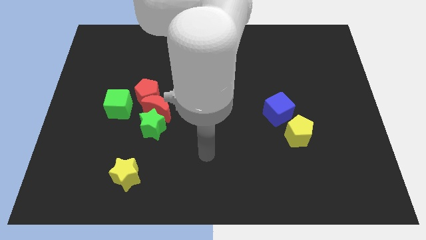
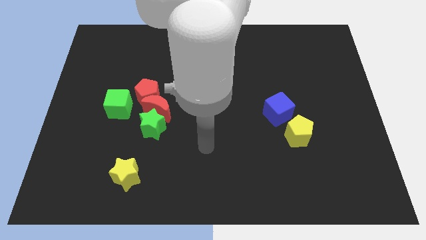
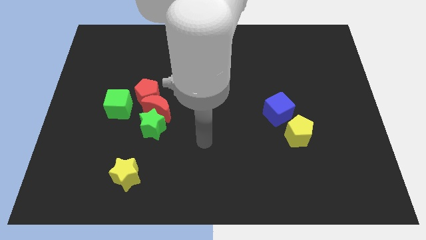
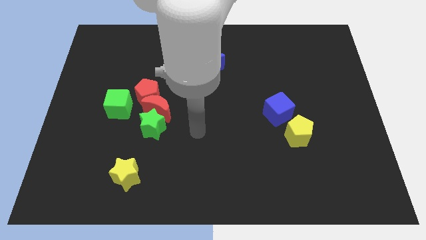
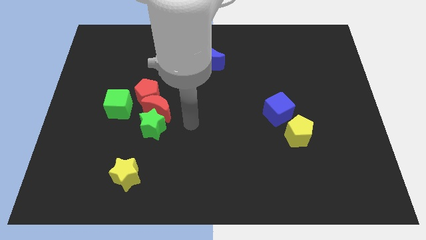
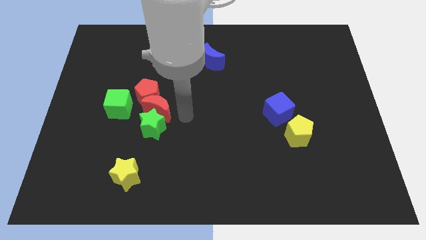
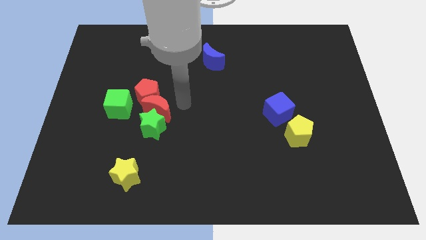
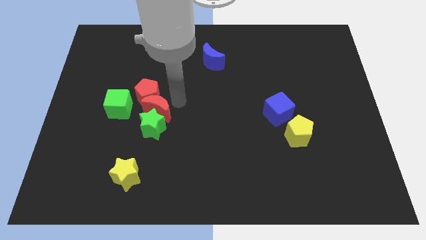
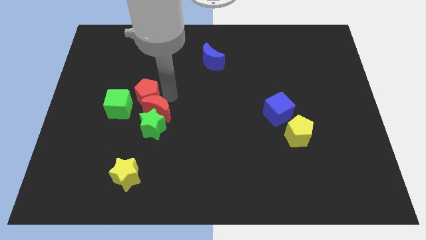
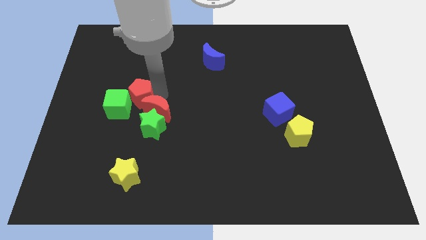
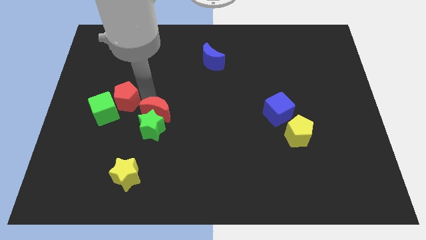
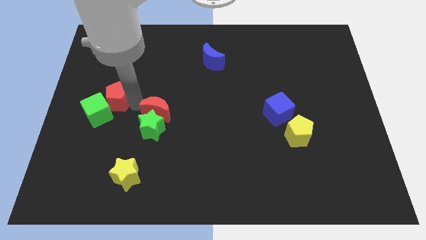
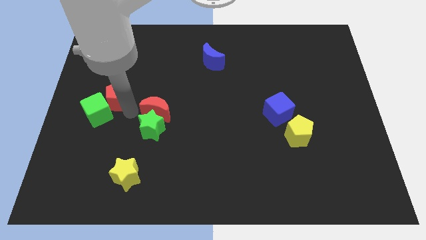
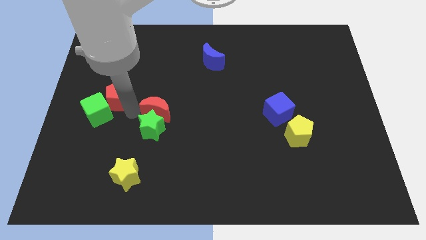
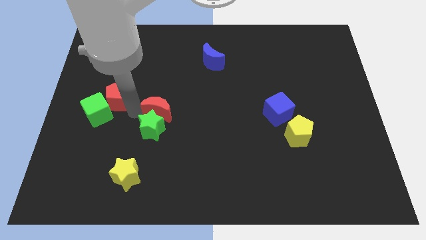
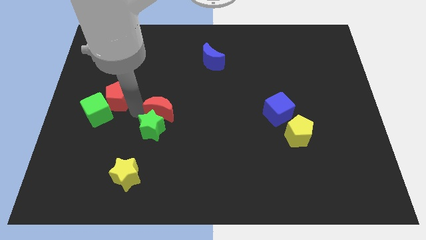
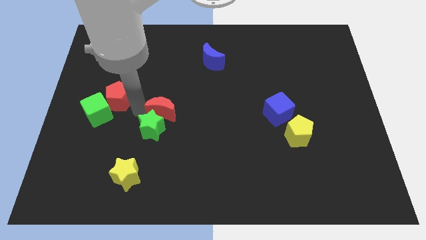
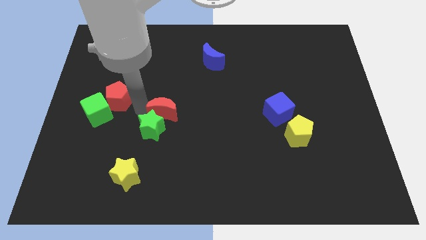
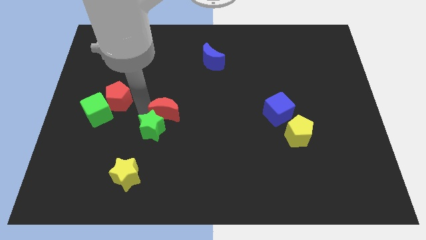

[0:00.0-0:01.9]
pull the red moon apart from the red pentagon, green star, and green cube

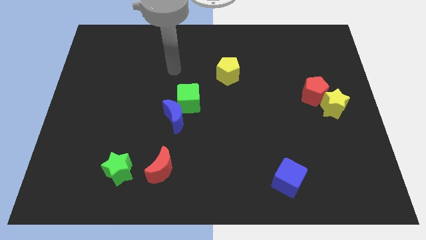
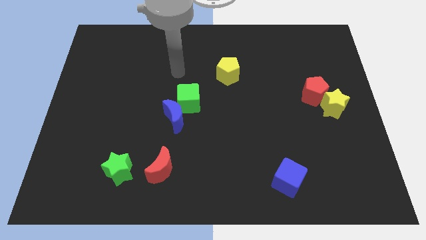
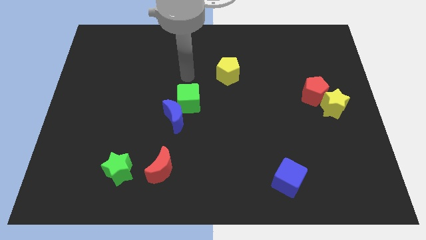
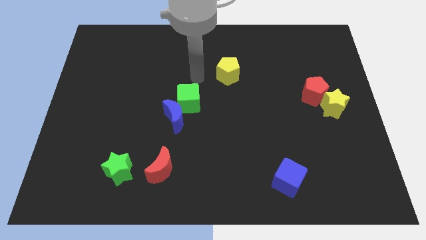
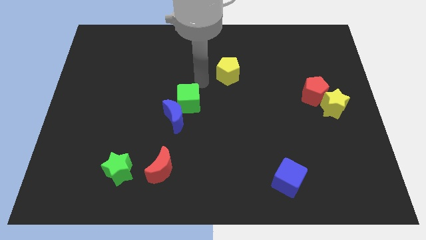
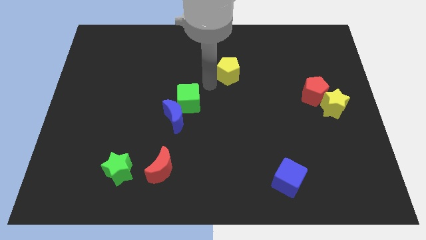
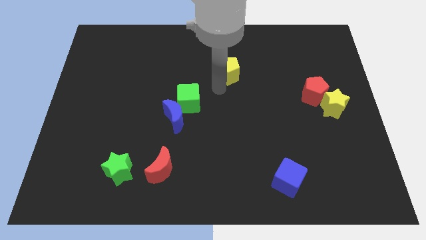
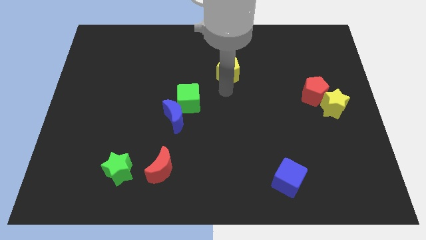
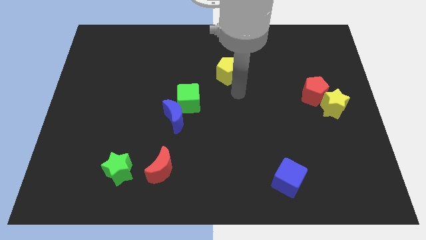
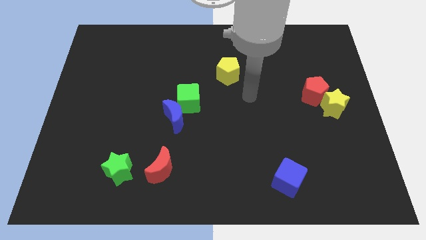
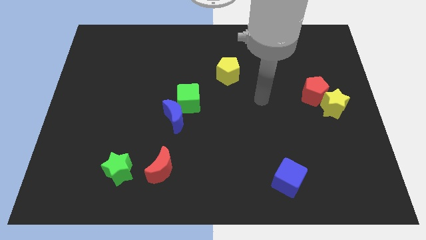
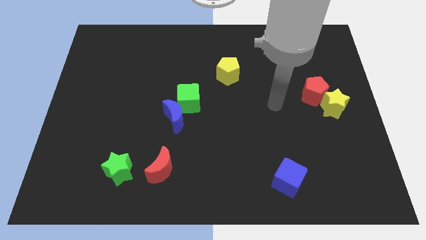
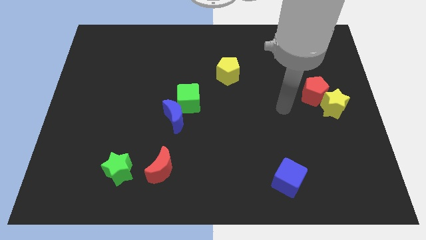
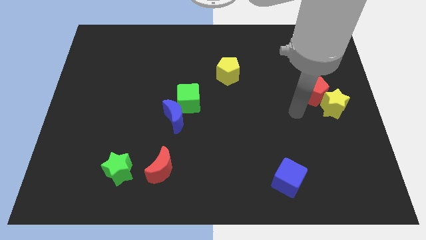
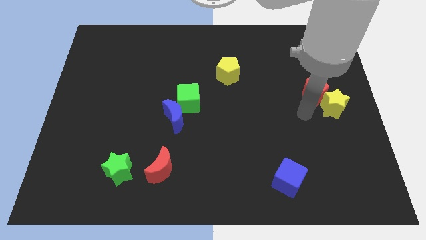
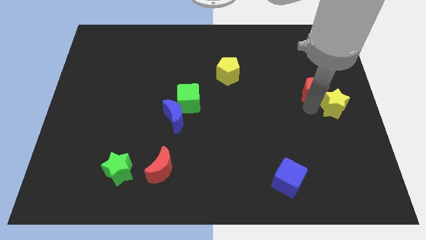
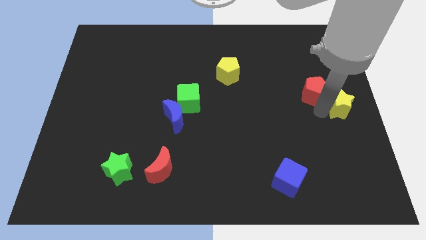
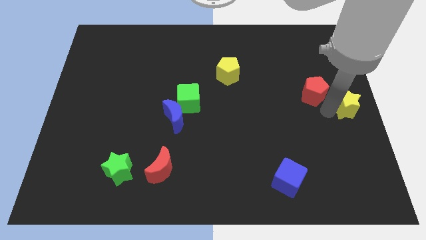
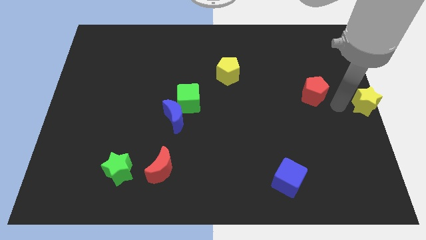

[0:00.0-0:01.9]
pull the red pentagon apart from the yellow star

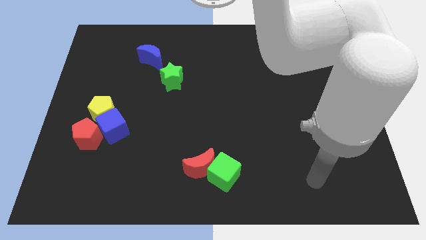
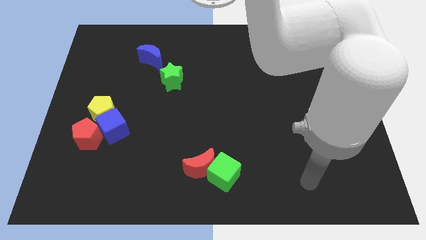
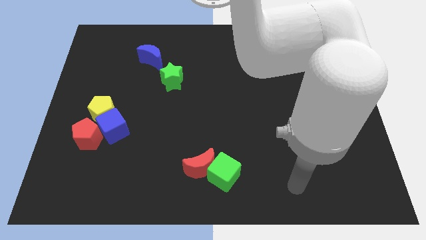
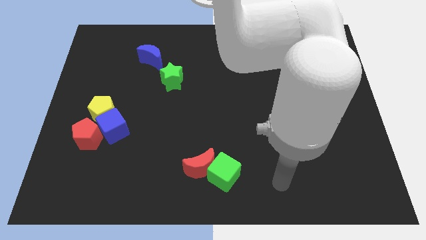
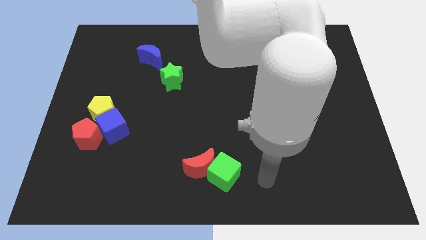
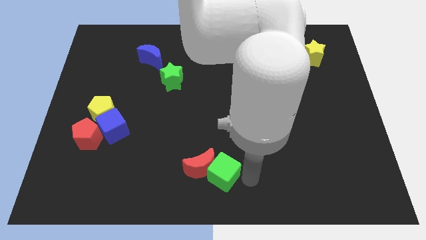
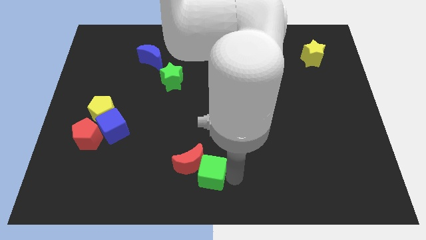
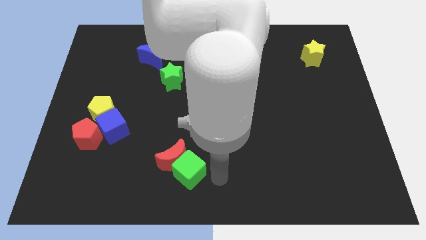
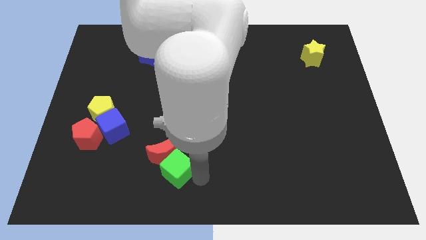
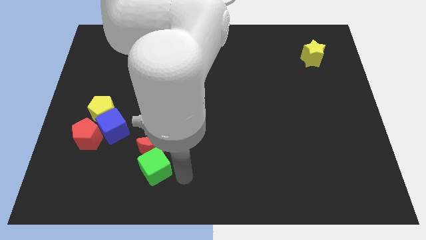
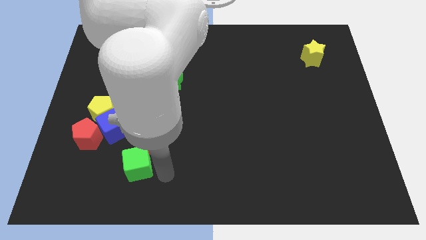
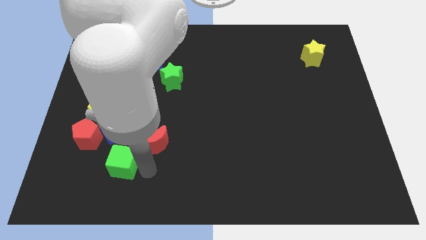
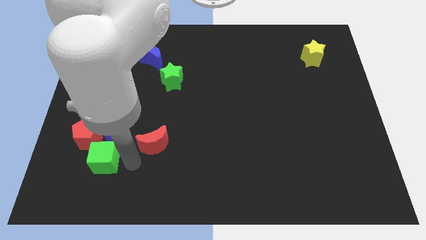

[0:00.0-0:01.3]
move the red moon away from the green cube

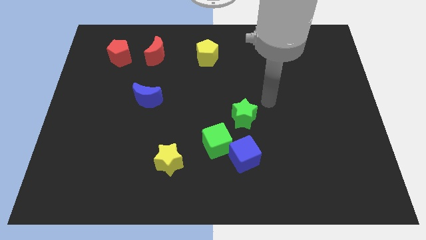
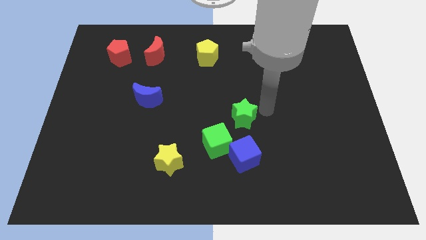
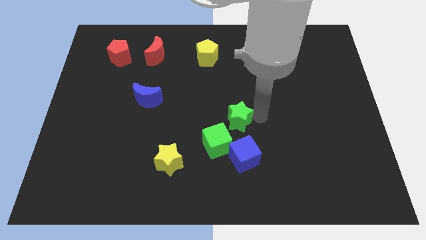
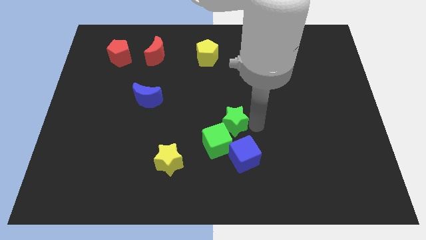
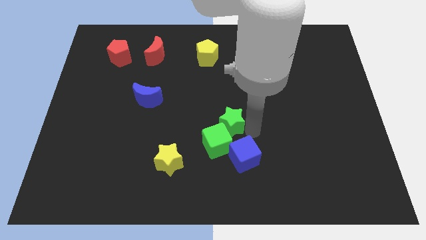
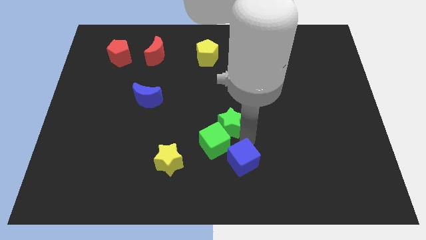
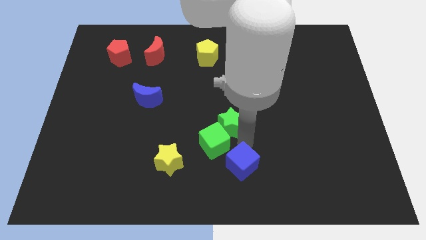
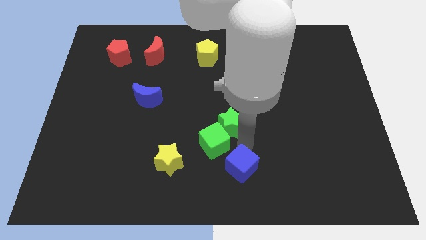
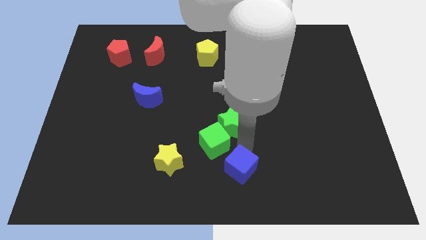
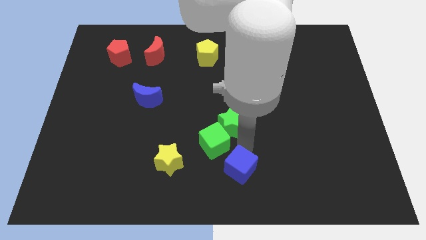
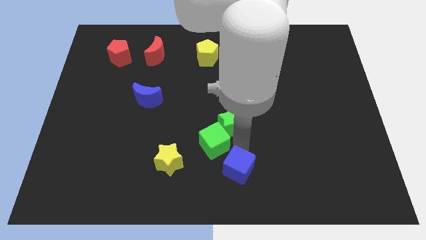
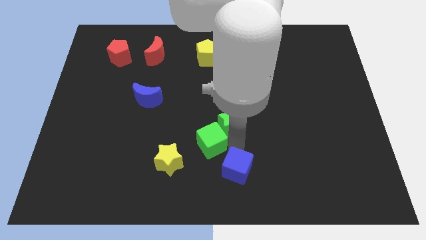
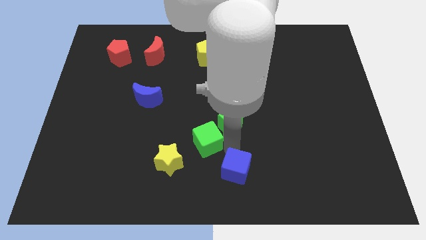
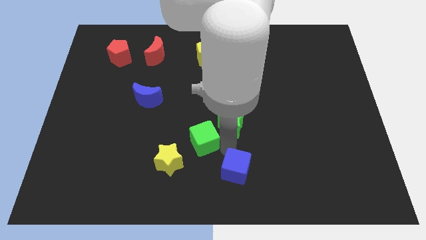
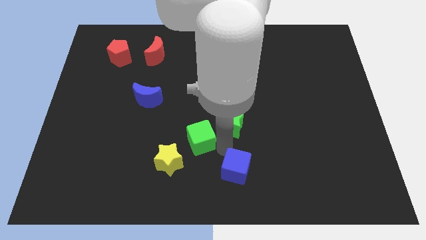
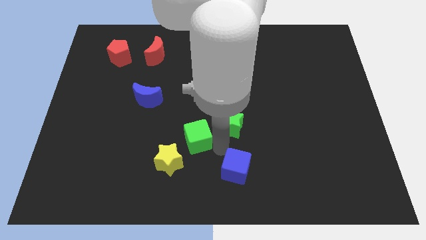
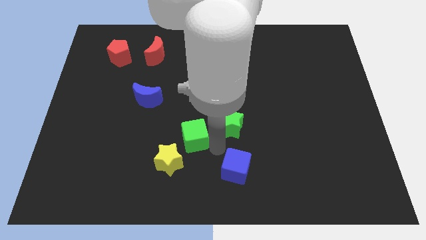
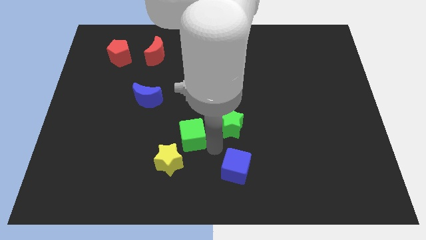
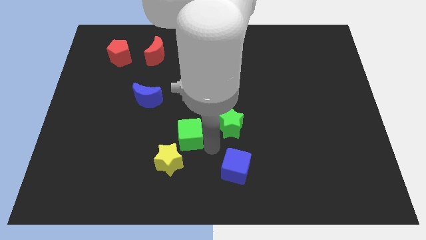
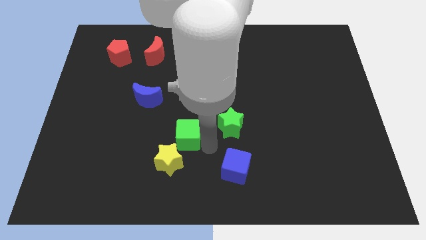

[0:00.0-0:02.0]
pull the green cube apart from the blue cube and green star

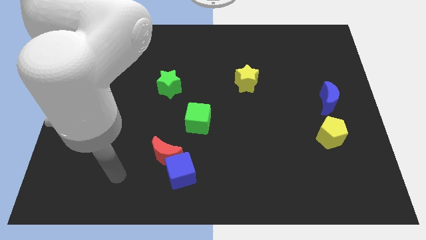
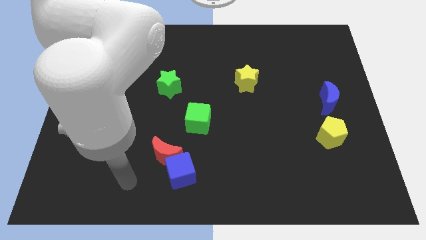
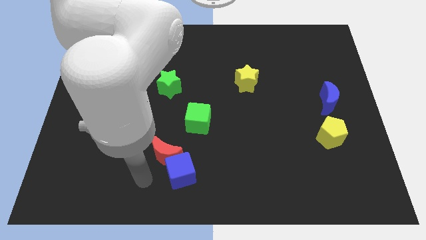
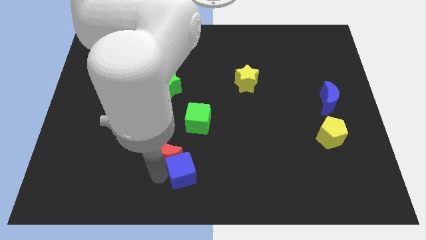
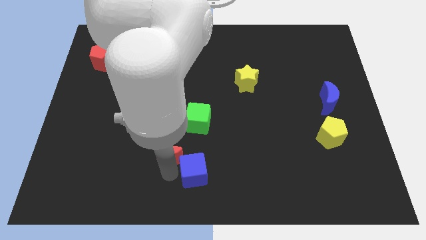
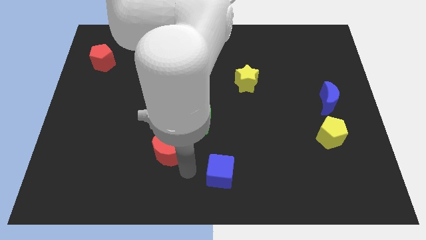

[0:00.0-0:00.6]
separate the red moon from the blue cube

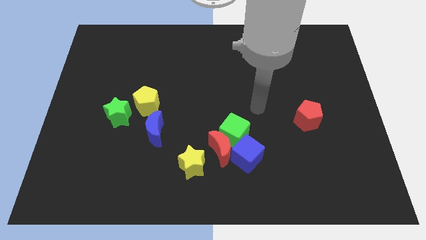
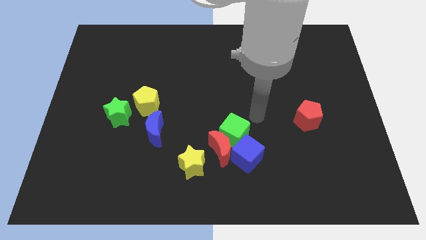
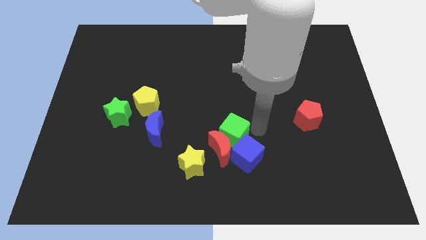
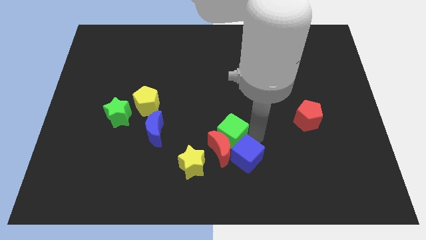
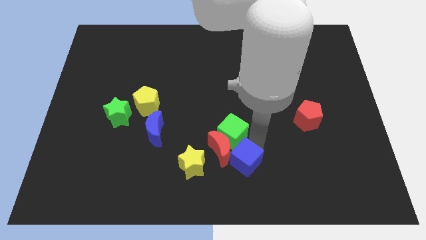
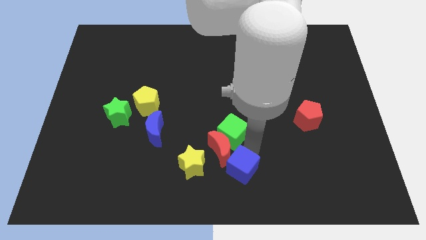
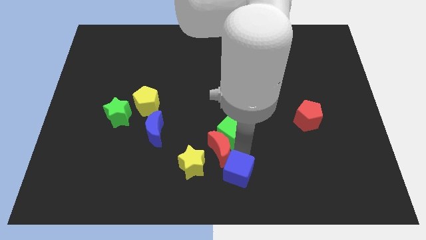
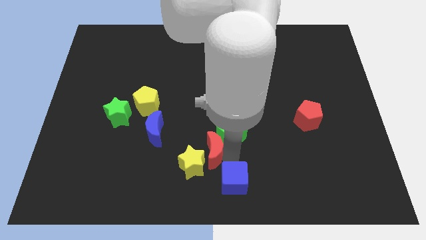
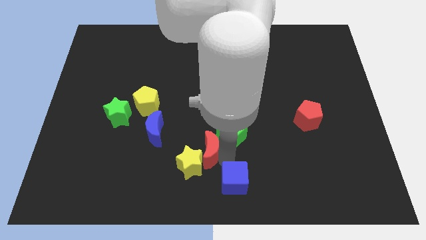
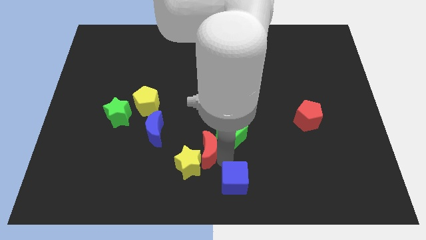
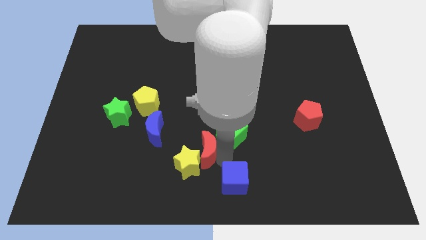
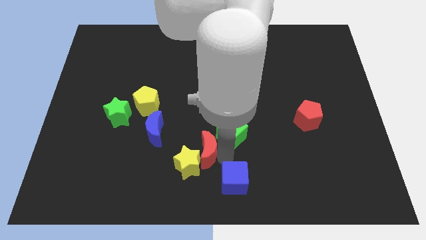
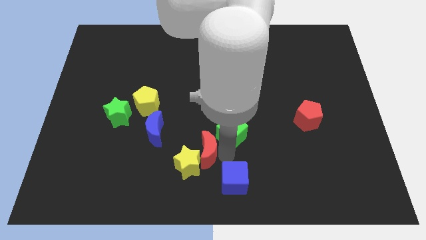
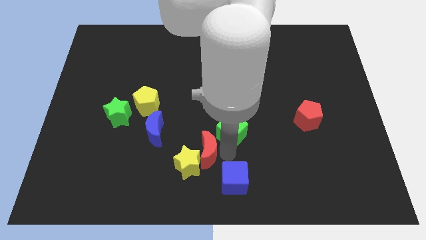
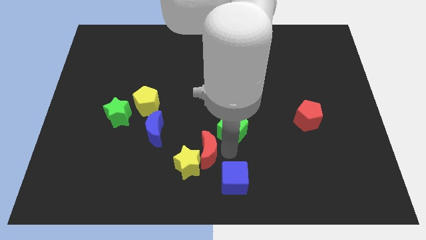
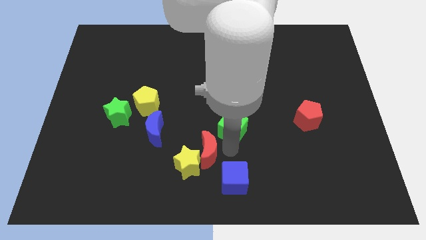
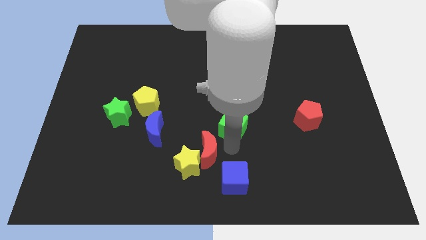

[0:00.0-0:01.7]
separate the green cube from the red moon and blue cube
